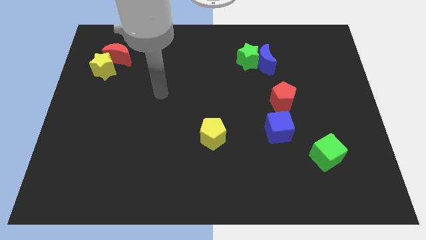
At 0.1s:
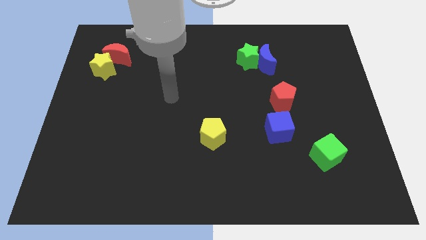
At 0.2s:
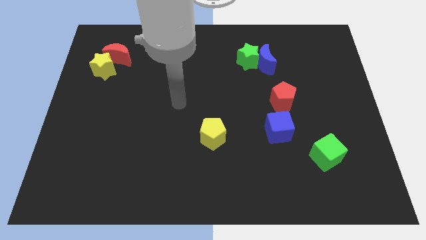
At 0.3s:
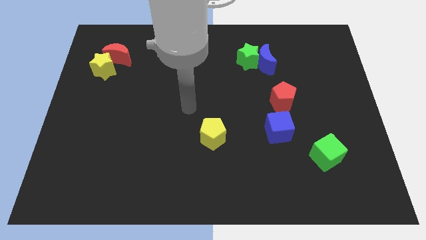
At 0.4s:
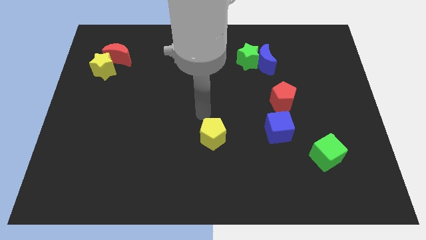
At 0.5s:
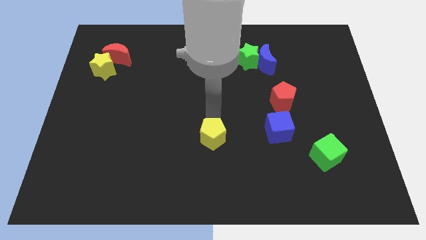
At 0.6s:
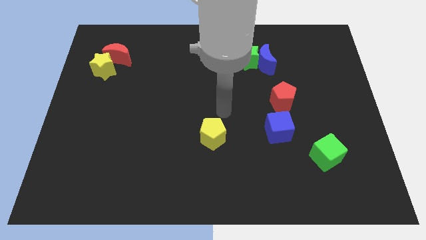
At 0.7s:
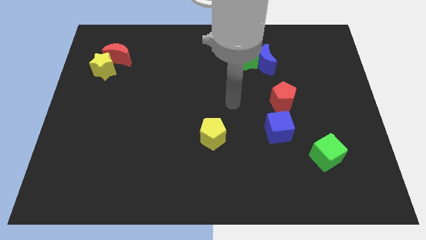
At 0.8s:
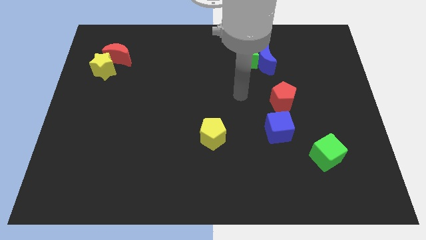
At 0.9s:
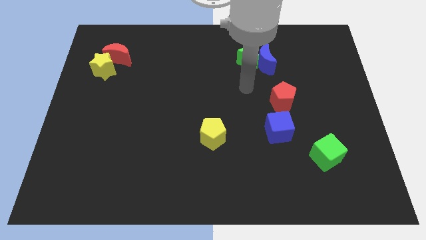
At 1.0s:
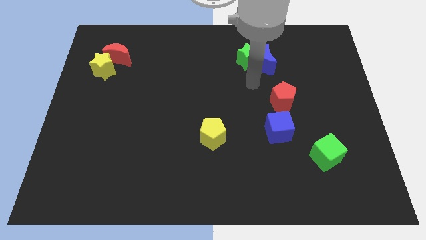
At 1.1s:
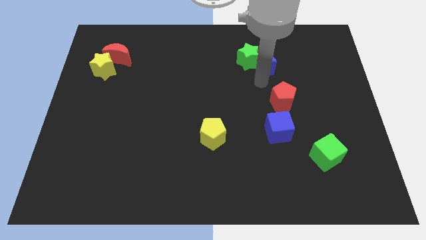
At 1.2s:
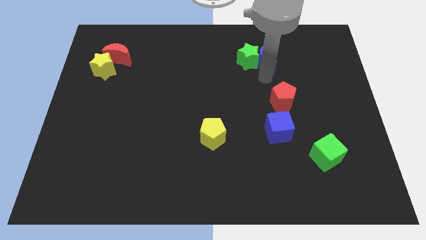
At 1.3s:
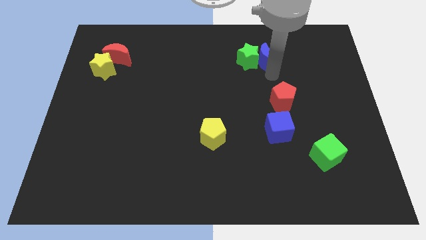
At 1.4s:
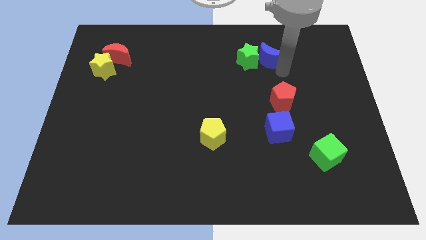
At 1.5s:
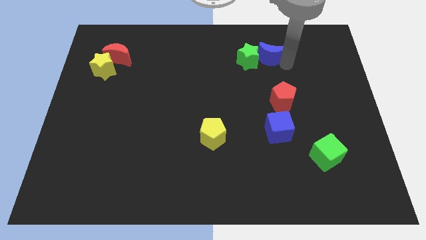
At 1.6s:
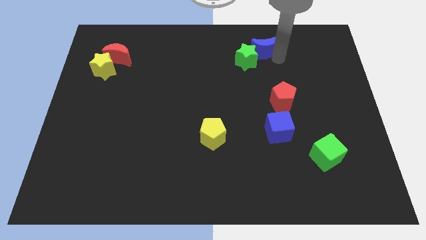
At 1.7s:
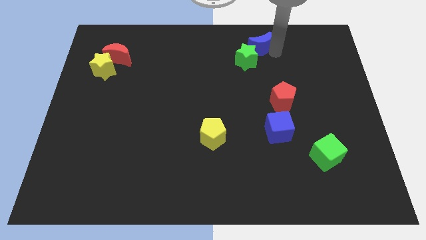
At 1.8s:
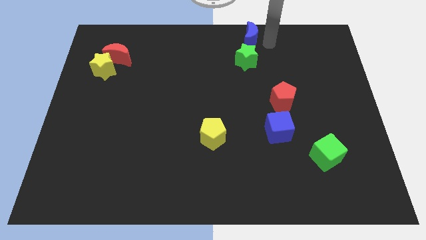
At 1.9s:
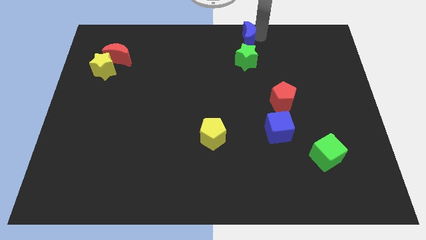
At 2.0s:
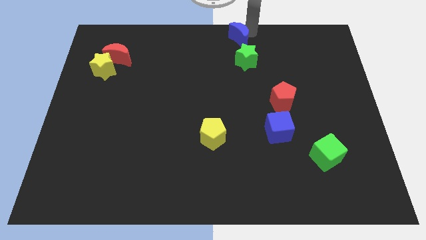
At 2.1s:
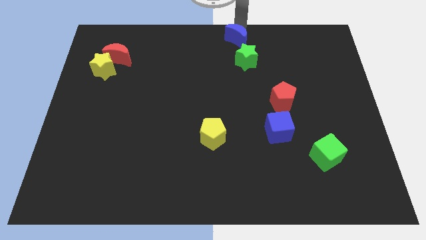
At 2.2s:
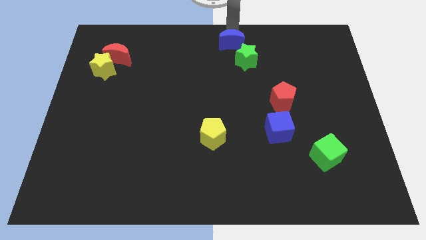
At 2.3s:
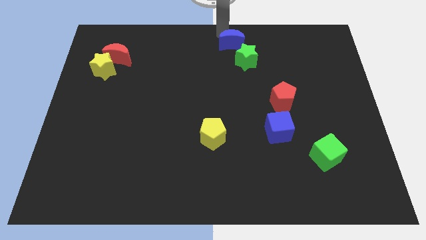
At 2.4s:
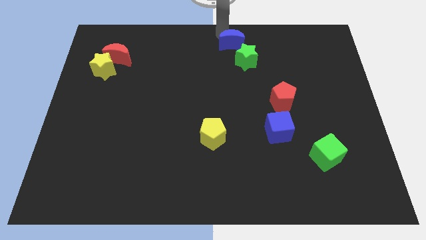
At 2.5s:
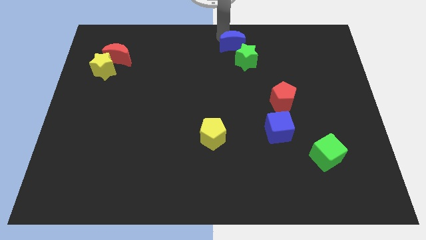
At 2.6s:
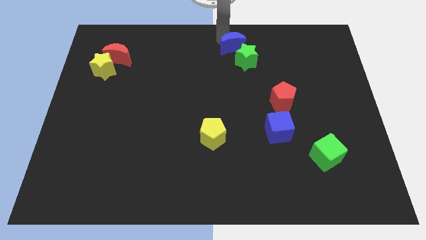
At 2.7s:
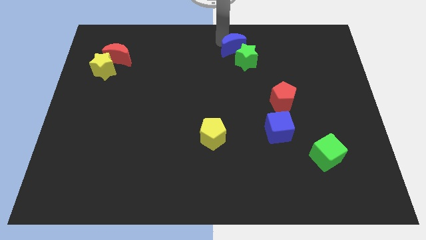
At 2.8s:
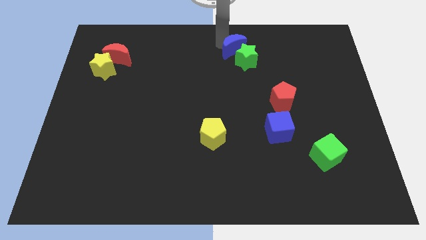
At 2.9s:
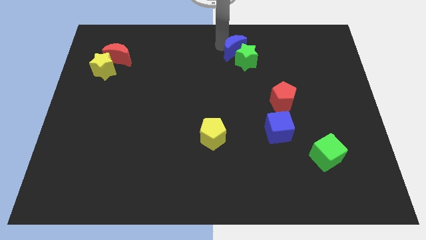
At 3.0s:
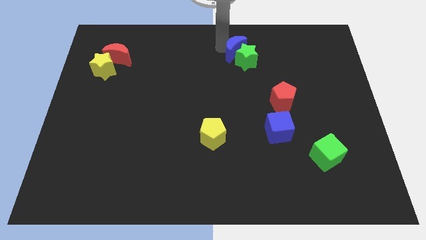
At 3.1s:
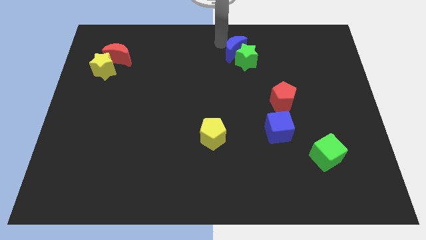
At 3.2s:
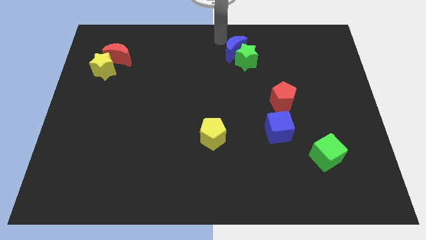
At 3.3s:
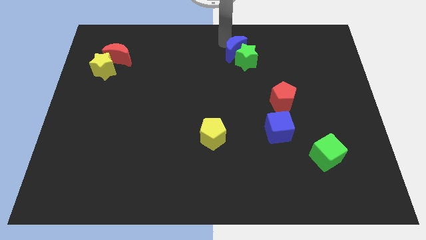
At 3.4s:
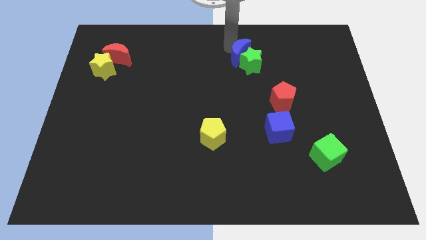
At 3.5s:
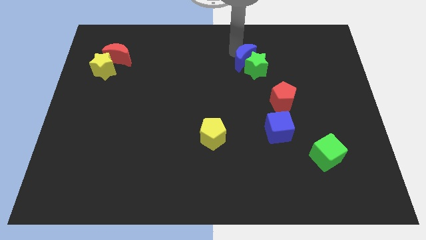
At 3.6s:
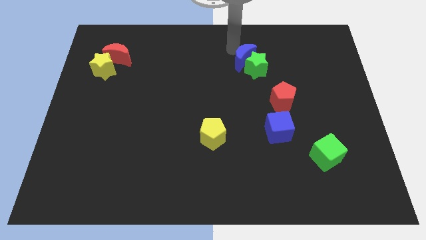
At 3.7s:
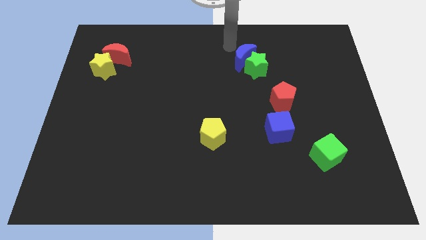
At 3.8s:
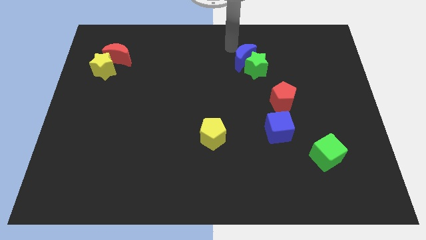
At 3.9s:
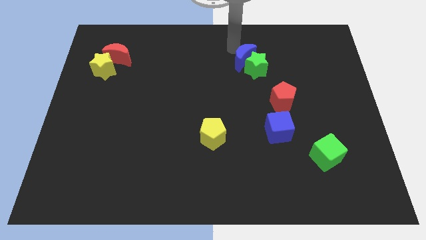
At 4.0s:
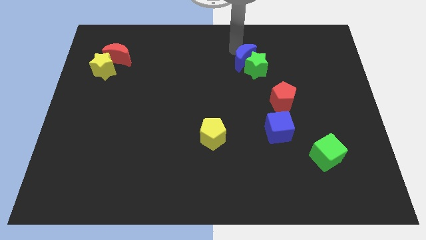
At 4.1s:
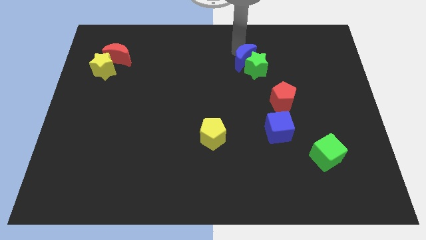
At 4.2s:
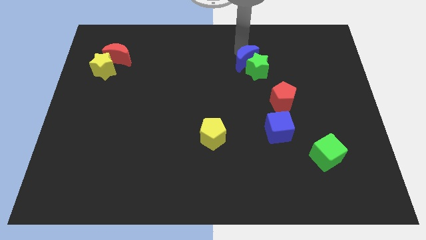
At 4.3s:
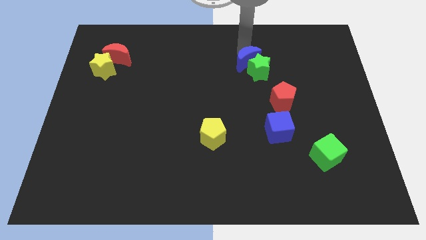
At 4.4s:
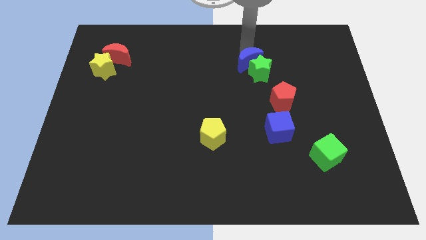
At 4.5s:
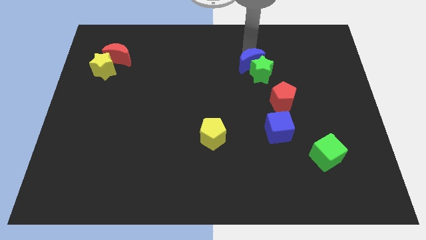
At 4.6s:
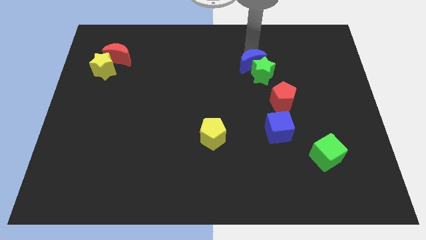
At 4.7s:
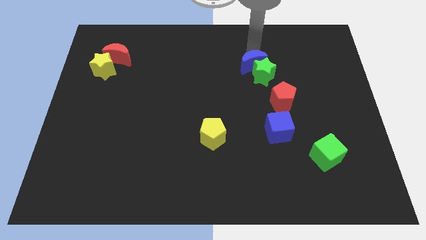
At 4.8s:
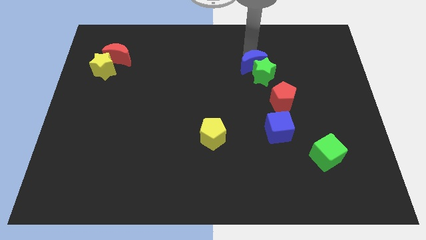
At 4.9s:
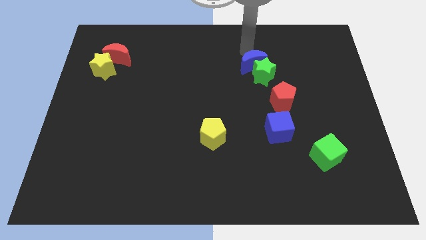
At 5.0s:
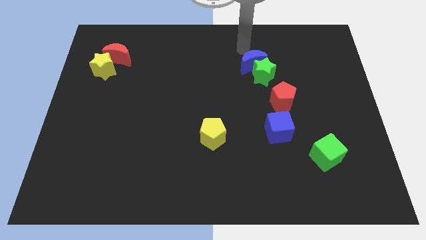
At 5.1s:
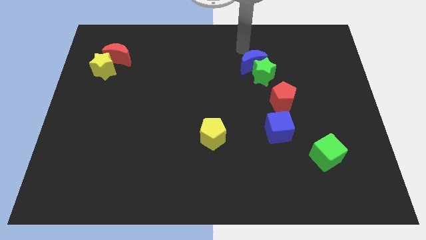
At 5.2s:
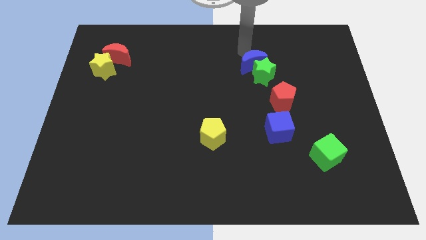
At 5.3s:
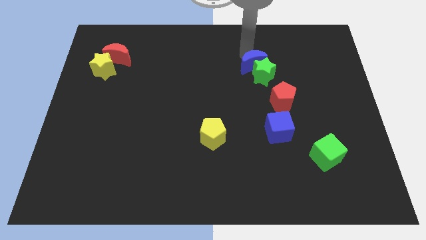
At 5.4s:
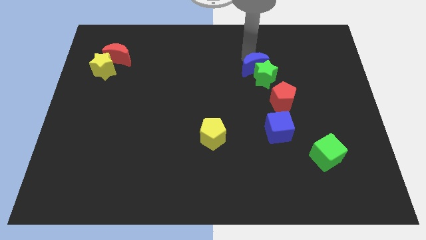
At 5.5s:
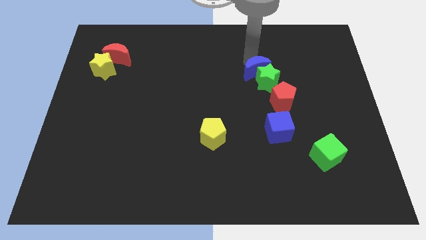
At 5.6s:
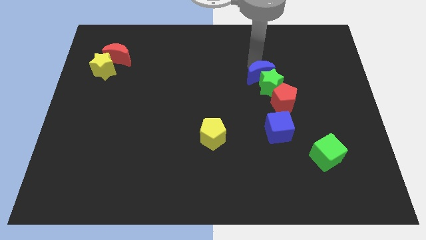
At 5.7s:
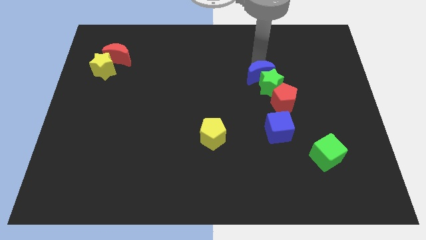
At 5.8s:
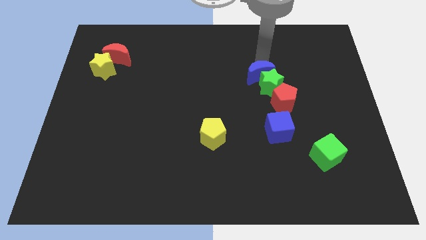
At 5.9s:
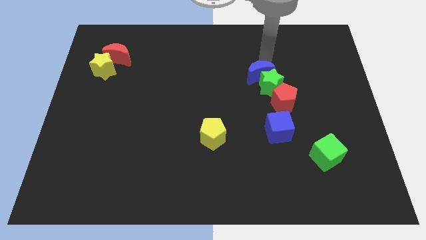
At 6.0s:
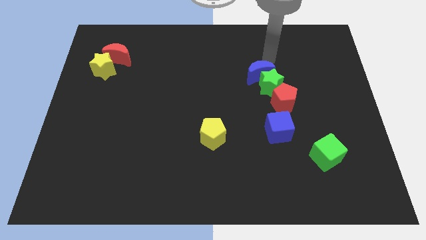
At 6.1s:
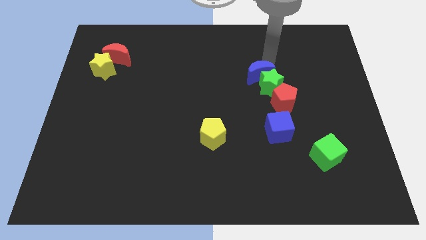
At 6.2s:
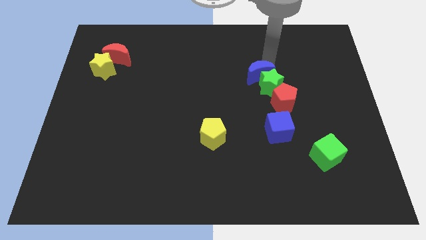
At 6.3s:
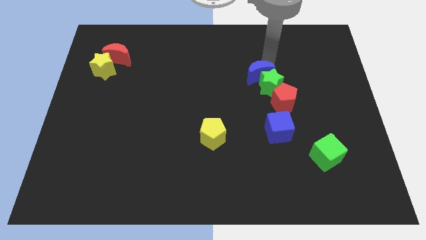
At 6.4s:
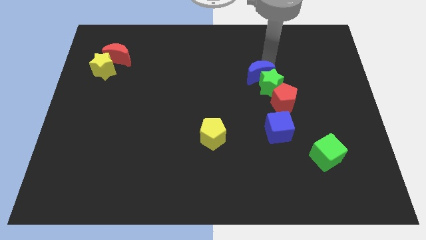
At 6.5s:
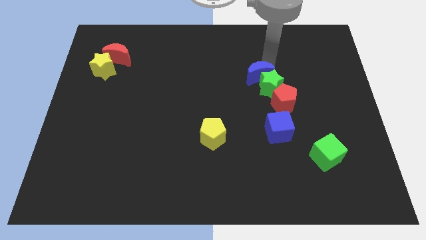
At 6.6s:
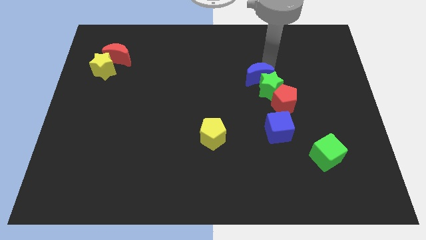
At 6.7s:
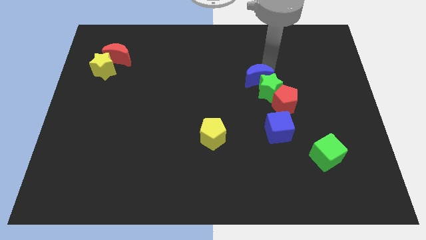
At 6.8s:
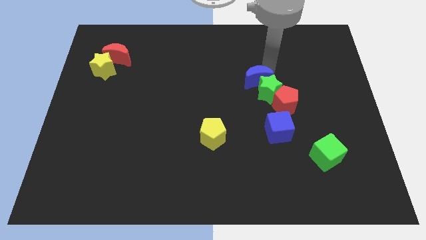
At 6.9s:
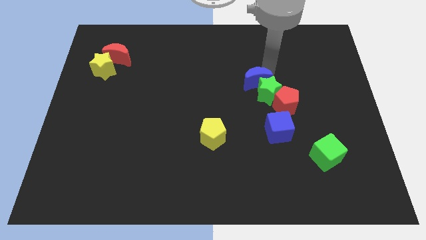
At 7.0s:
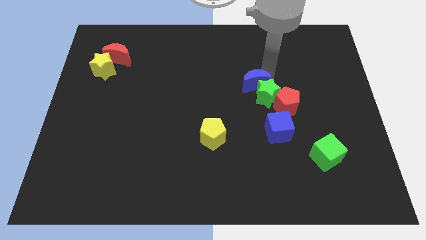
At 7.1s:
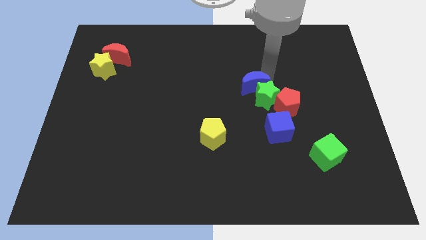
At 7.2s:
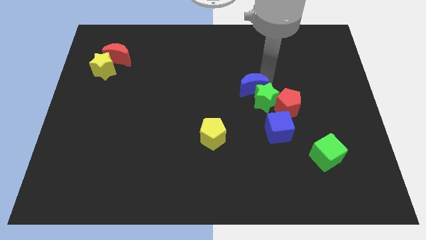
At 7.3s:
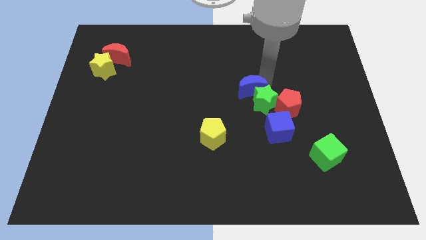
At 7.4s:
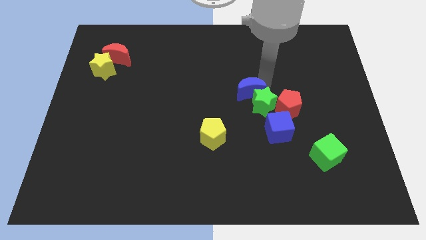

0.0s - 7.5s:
put the blue moon to the left of the red pentagon
